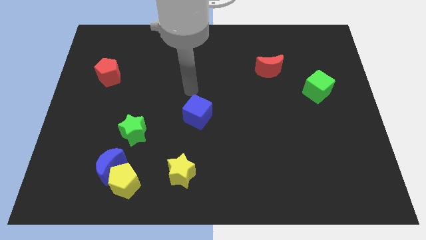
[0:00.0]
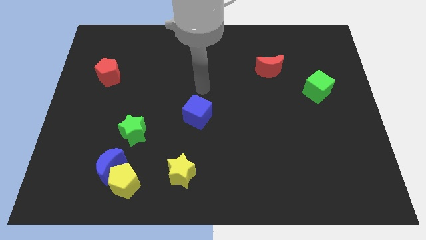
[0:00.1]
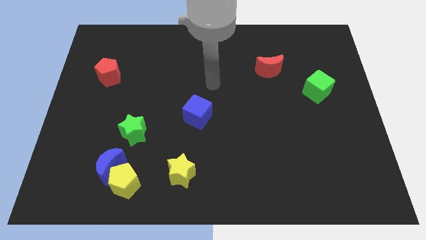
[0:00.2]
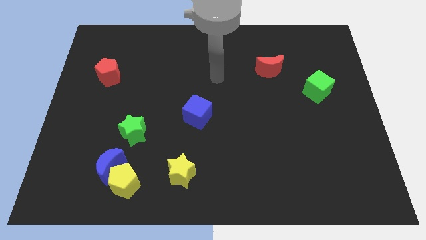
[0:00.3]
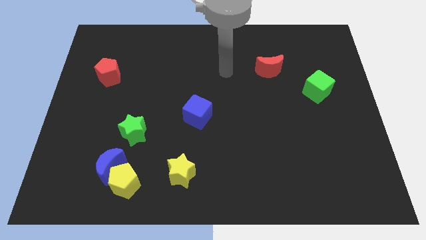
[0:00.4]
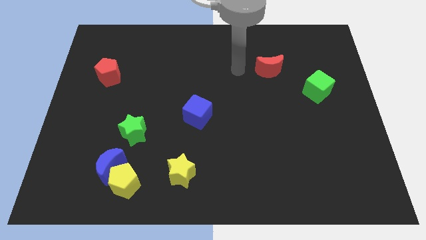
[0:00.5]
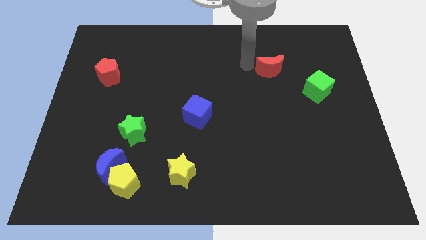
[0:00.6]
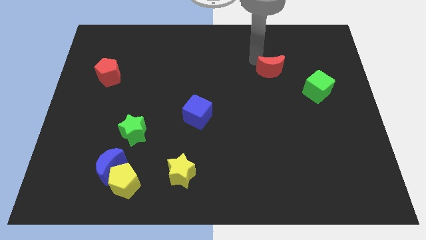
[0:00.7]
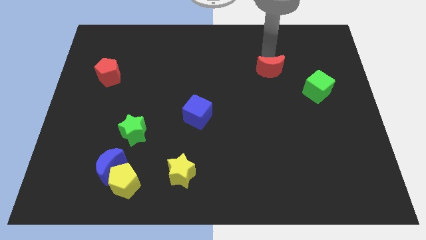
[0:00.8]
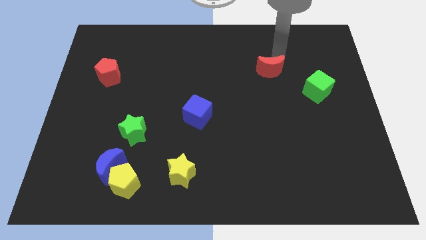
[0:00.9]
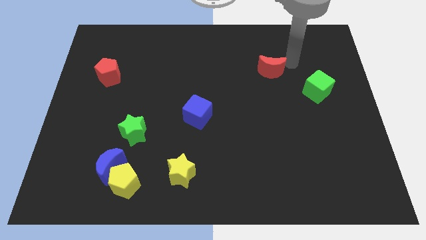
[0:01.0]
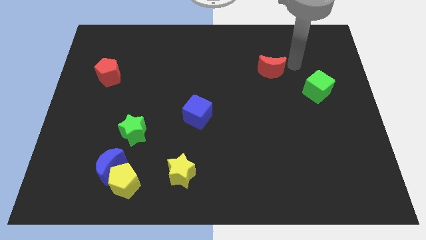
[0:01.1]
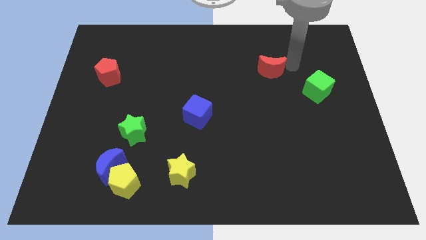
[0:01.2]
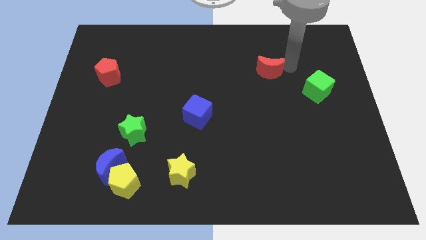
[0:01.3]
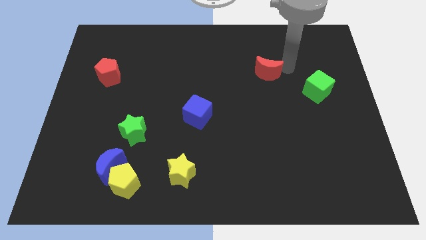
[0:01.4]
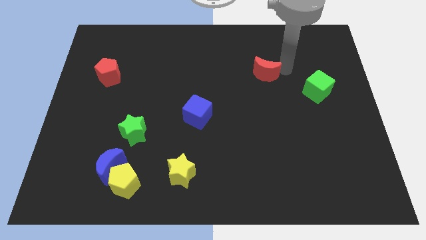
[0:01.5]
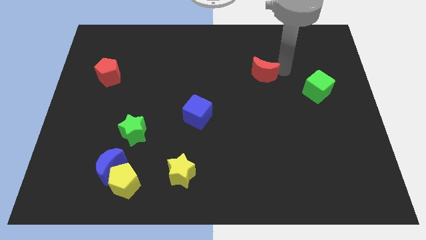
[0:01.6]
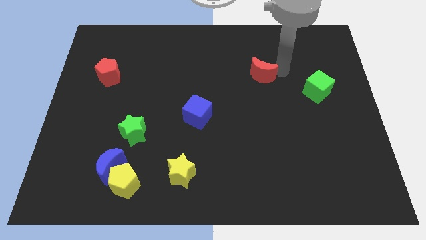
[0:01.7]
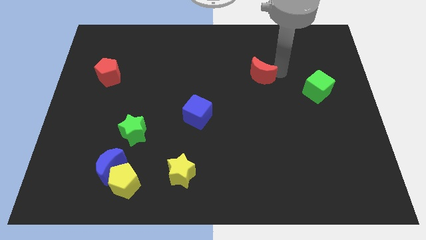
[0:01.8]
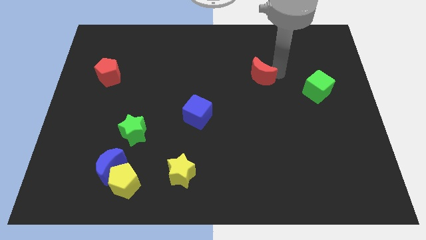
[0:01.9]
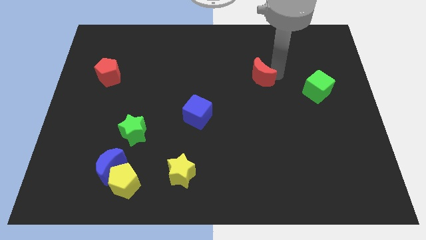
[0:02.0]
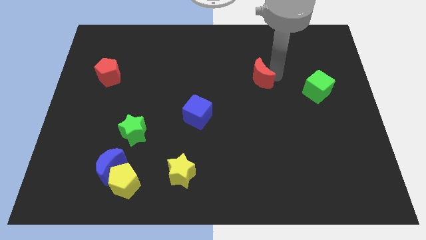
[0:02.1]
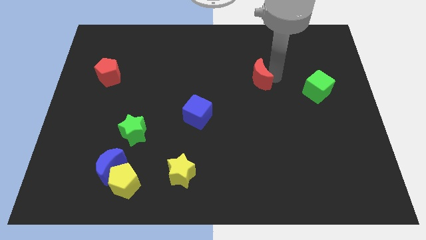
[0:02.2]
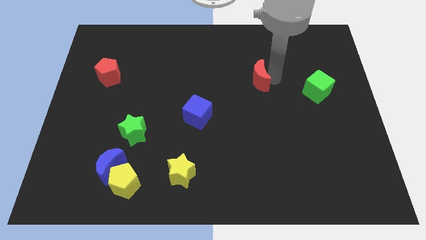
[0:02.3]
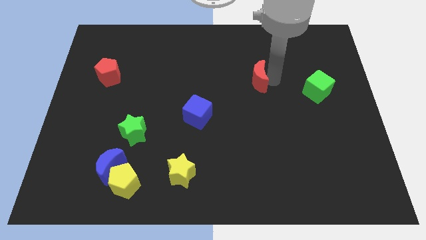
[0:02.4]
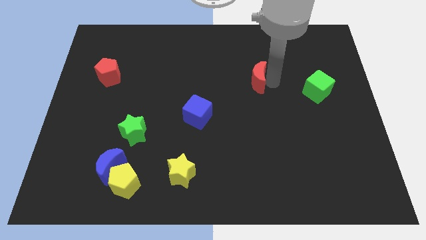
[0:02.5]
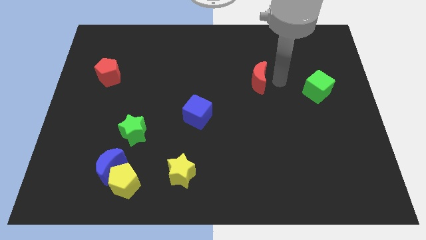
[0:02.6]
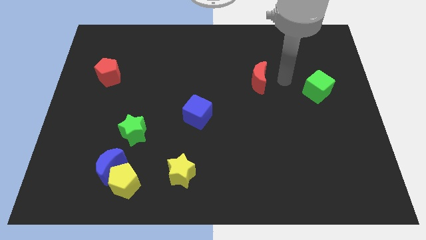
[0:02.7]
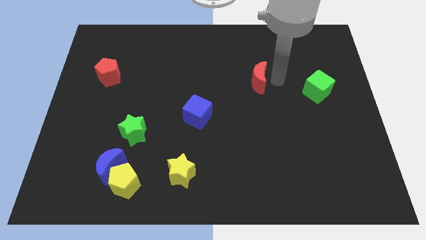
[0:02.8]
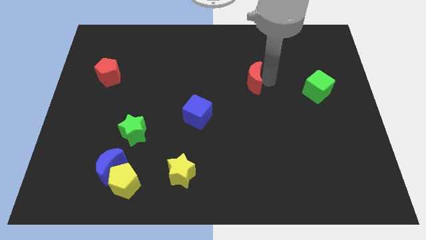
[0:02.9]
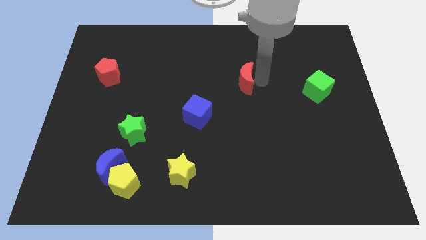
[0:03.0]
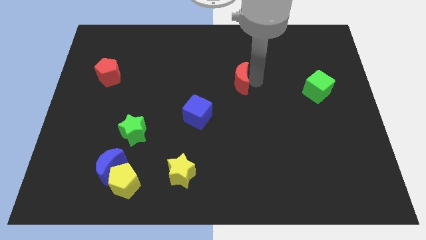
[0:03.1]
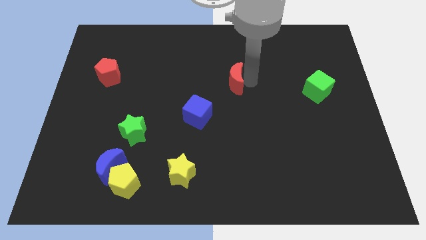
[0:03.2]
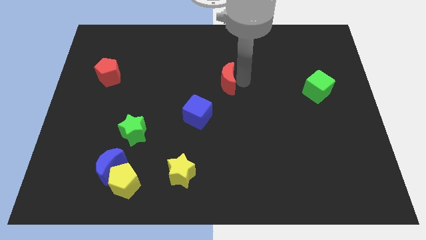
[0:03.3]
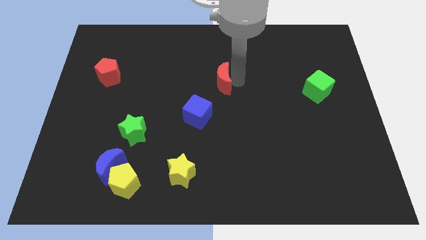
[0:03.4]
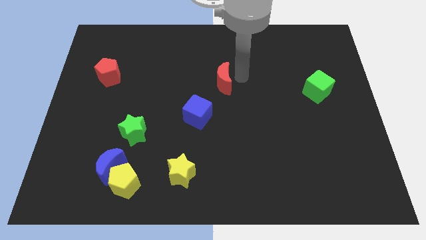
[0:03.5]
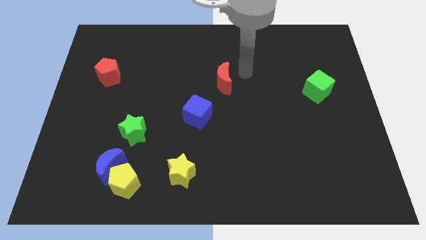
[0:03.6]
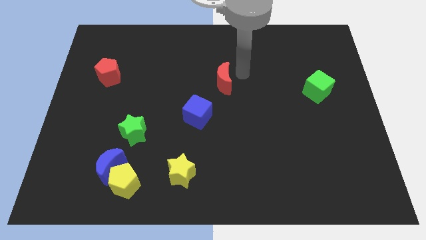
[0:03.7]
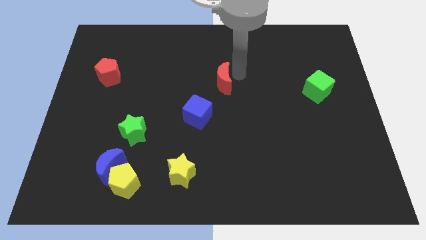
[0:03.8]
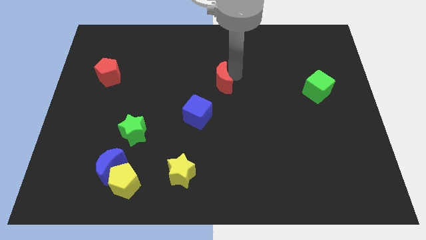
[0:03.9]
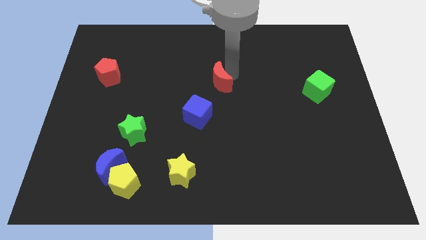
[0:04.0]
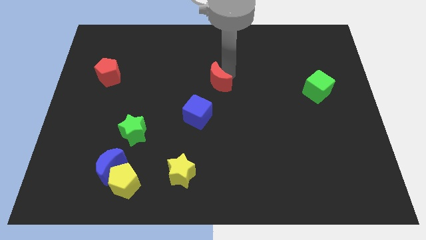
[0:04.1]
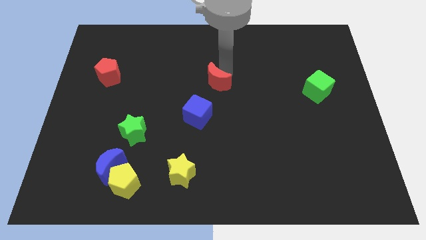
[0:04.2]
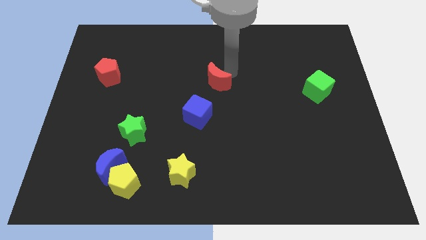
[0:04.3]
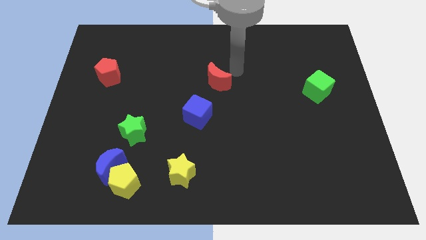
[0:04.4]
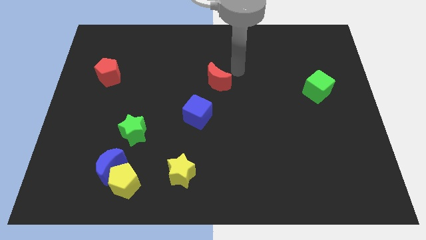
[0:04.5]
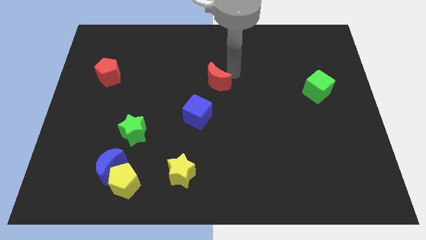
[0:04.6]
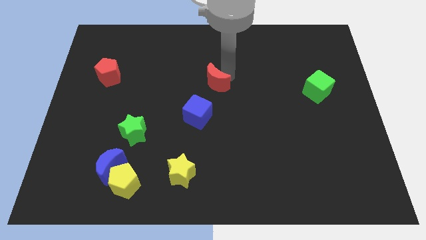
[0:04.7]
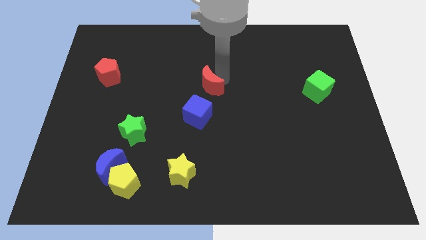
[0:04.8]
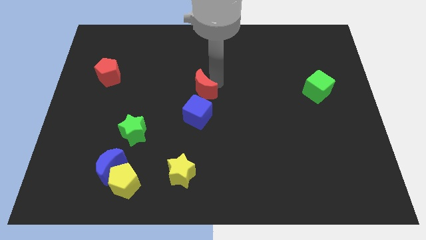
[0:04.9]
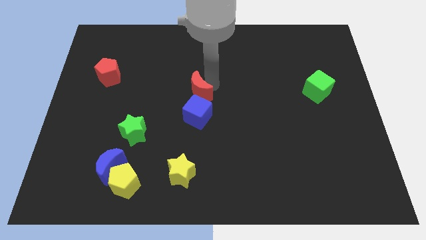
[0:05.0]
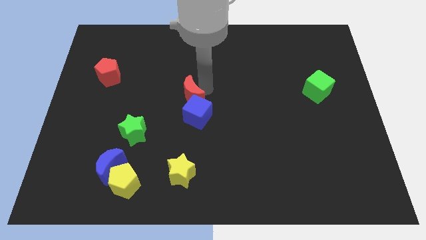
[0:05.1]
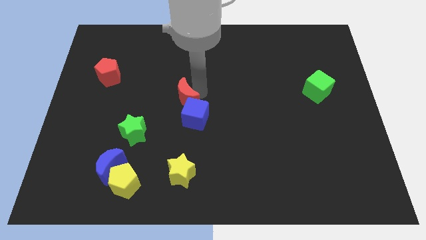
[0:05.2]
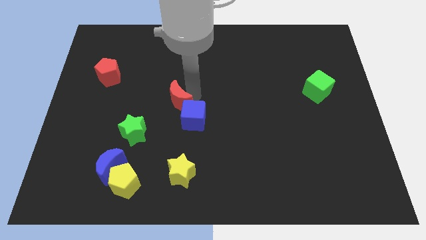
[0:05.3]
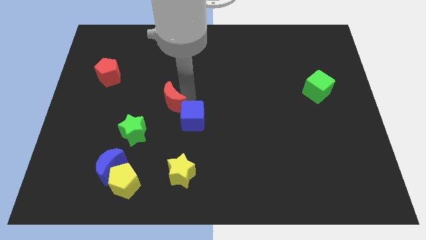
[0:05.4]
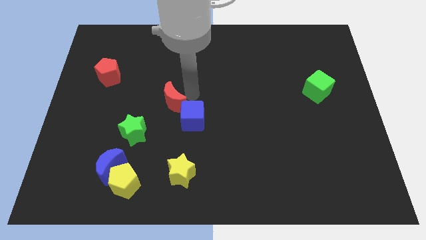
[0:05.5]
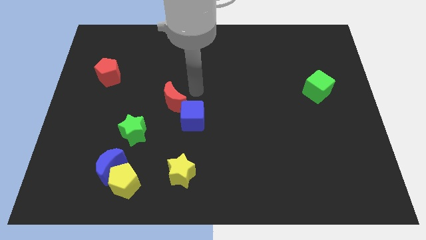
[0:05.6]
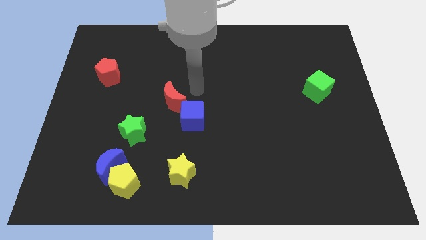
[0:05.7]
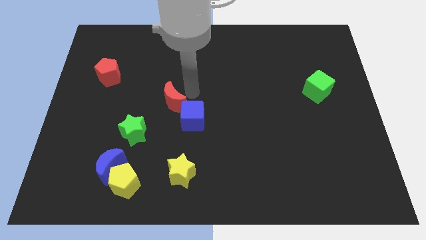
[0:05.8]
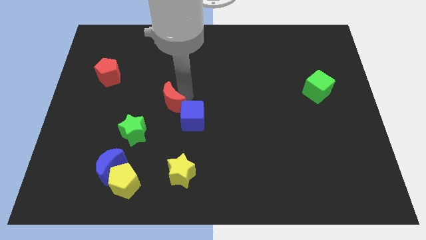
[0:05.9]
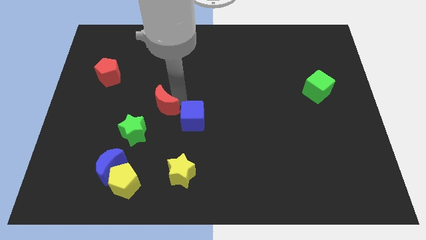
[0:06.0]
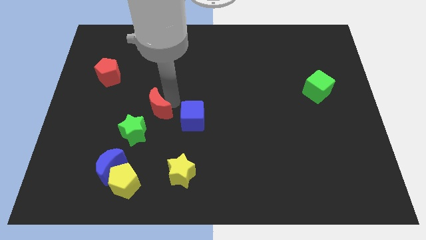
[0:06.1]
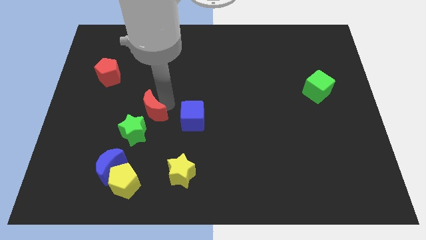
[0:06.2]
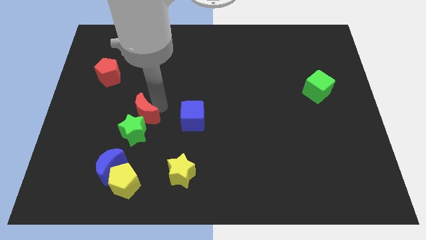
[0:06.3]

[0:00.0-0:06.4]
push the red moon to the green star

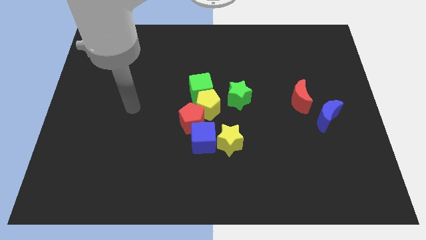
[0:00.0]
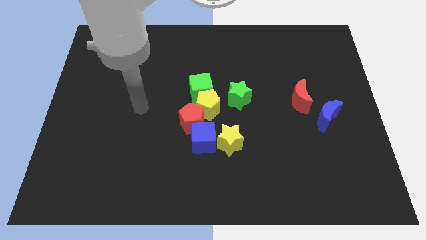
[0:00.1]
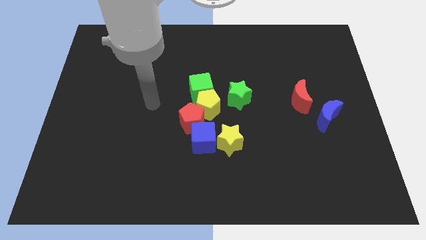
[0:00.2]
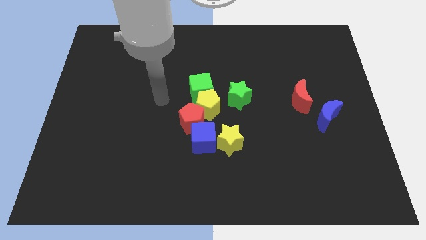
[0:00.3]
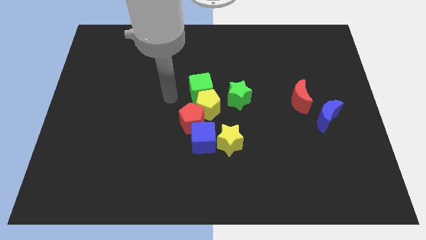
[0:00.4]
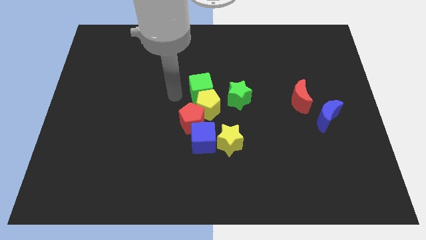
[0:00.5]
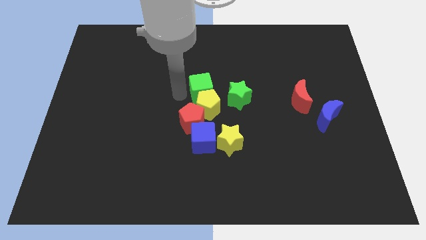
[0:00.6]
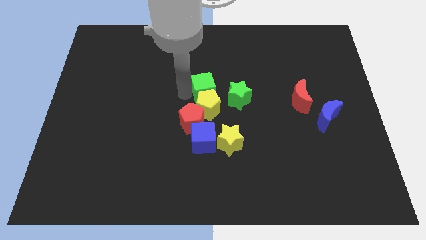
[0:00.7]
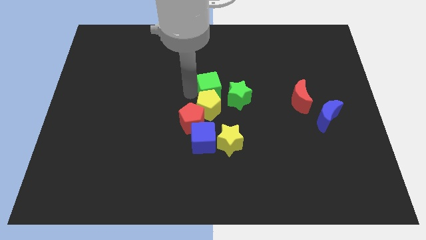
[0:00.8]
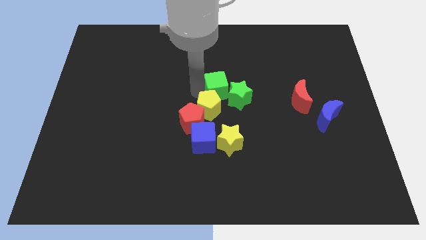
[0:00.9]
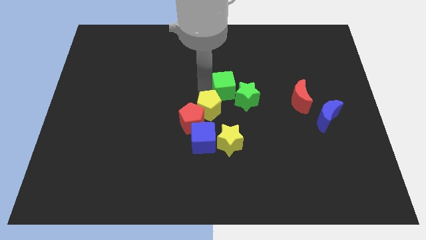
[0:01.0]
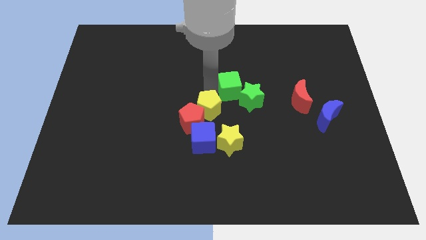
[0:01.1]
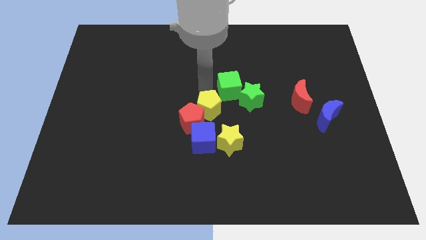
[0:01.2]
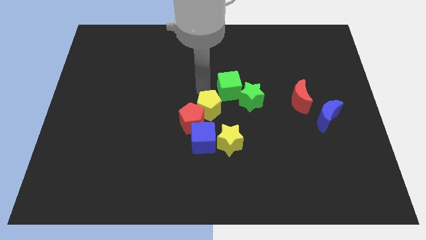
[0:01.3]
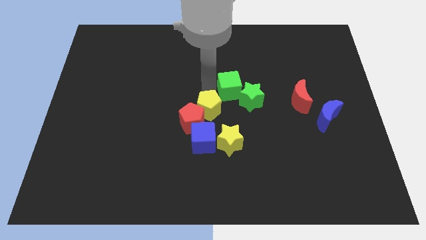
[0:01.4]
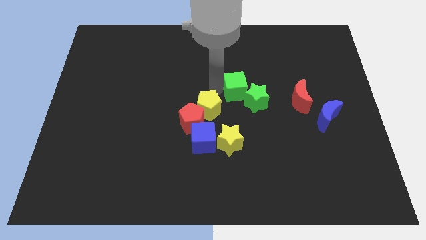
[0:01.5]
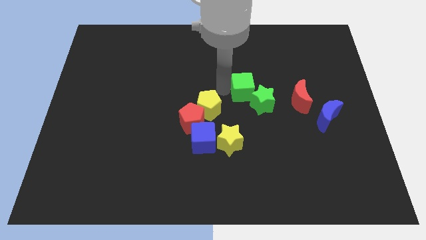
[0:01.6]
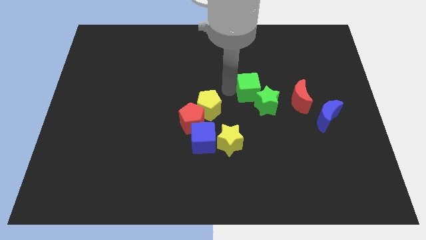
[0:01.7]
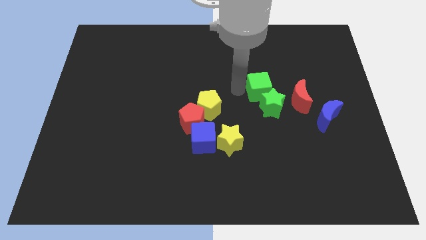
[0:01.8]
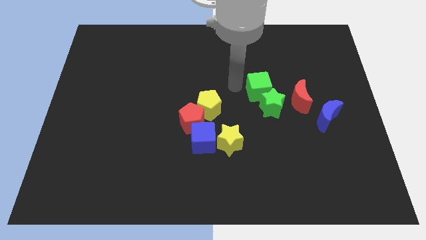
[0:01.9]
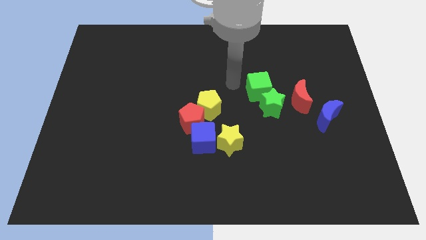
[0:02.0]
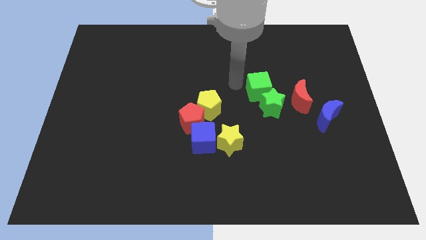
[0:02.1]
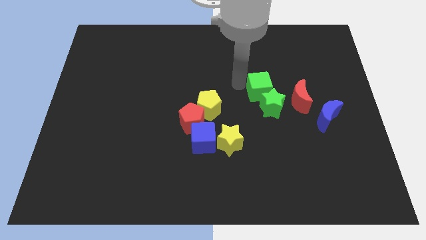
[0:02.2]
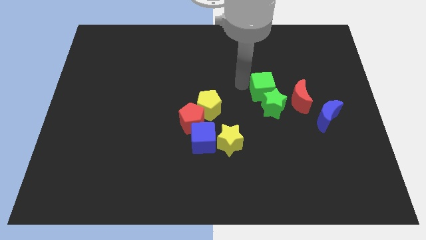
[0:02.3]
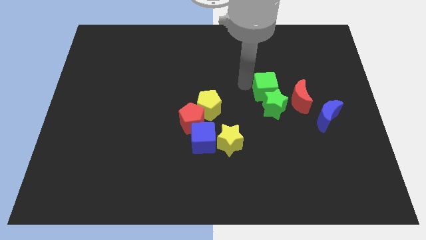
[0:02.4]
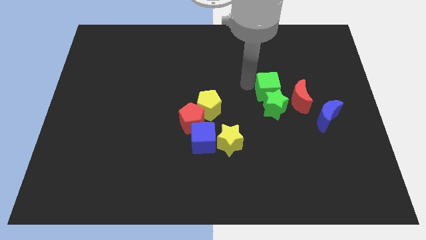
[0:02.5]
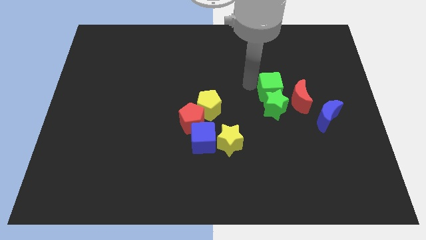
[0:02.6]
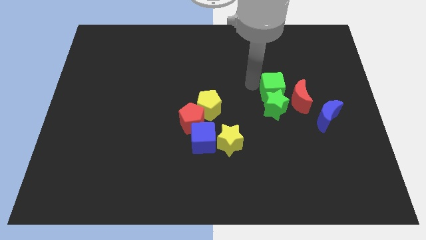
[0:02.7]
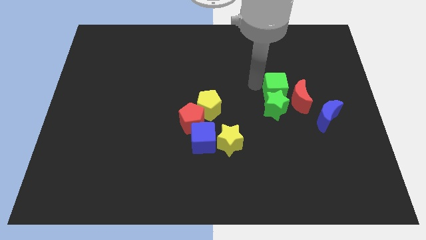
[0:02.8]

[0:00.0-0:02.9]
put the green cube close to the red moon
